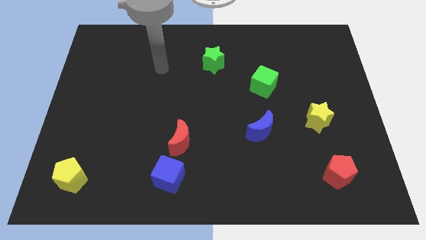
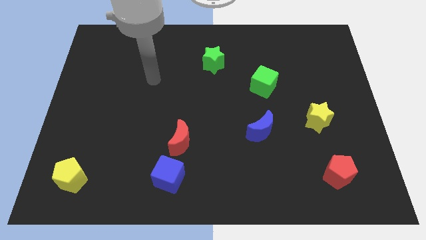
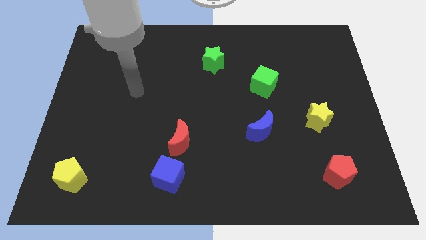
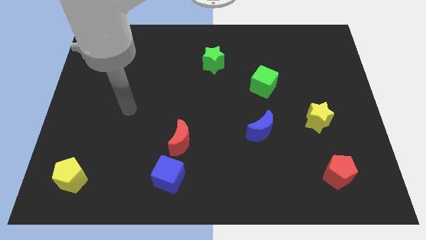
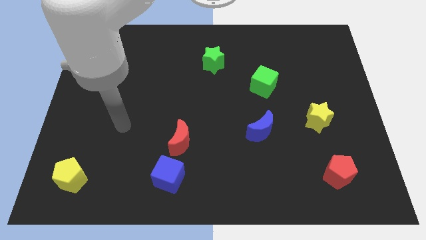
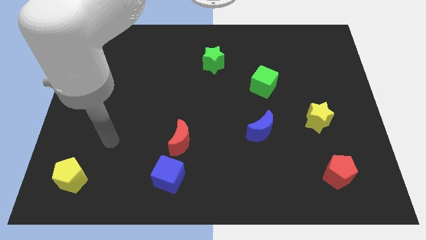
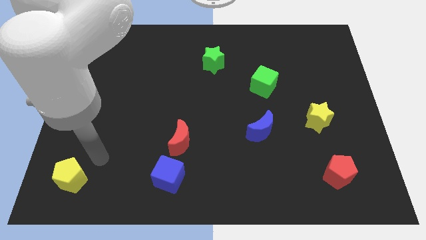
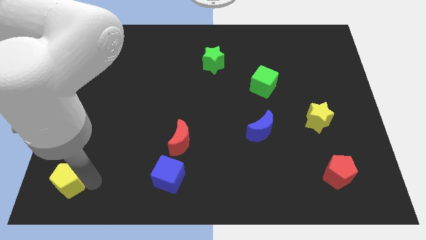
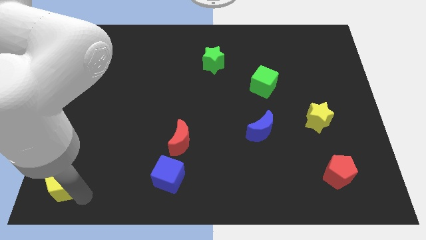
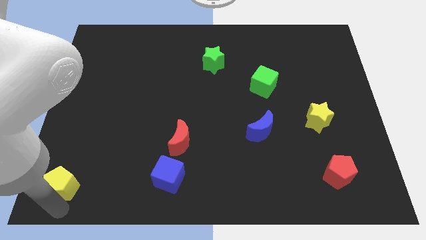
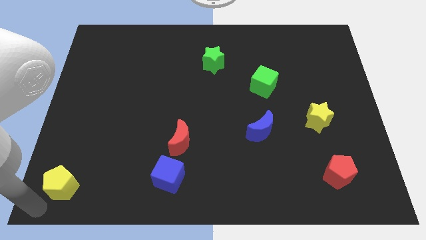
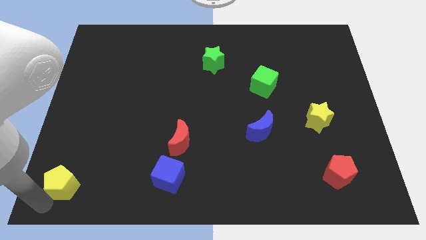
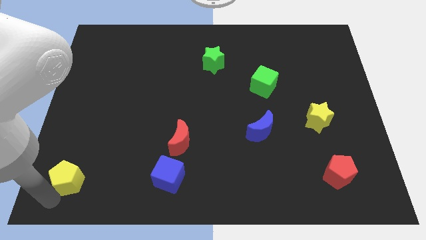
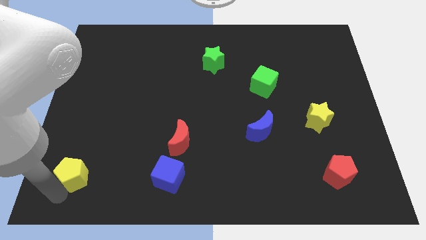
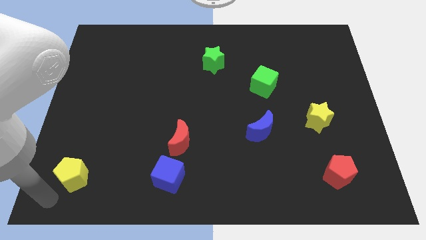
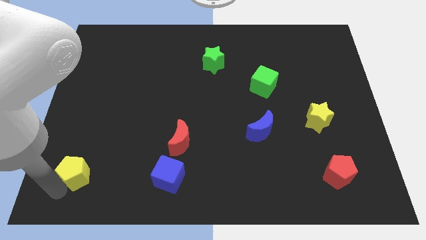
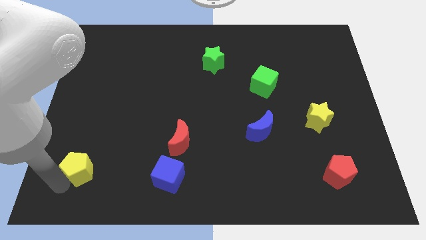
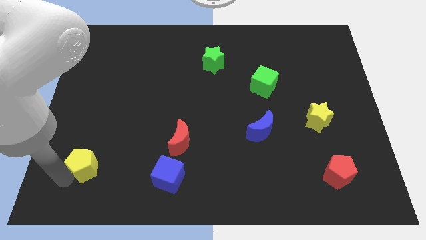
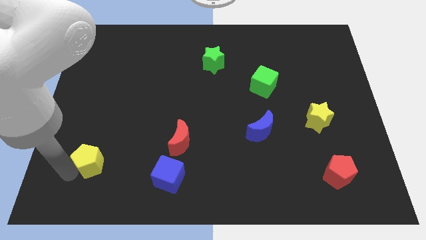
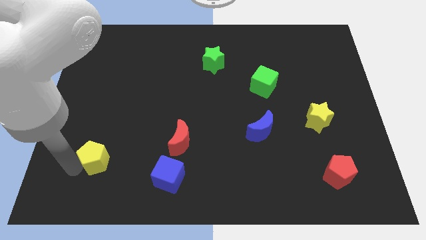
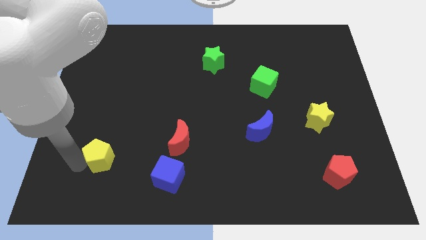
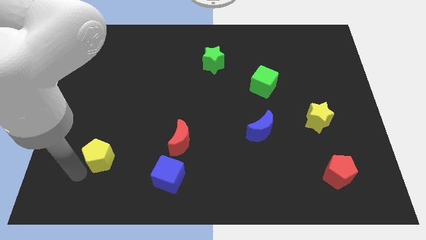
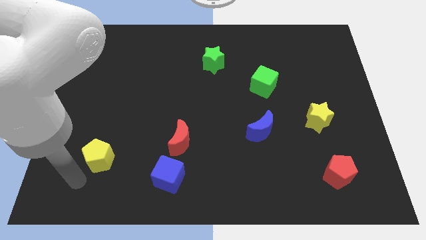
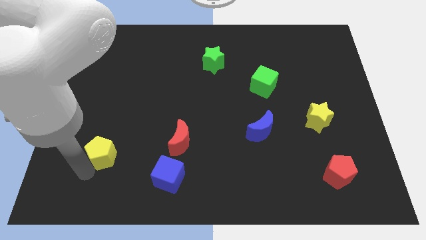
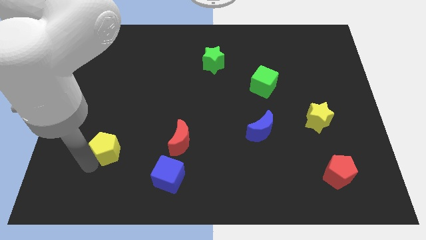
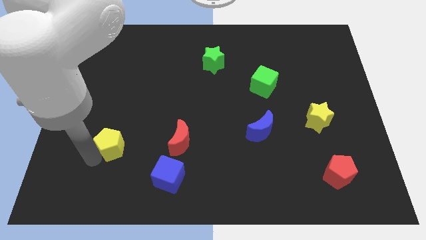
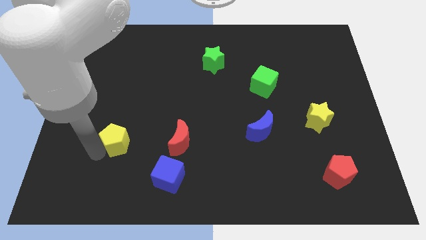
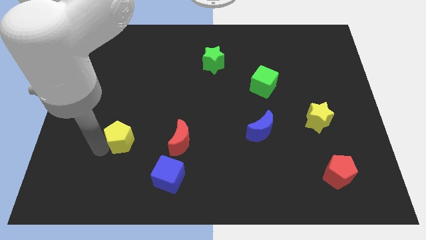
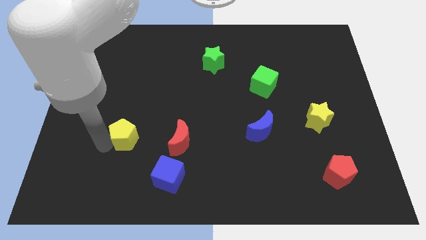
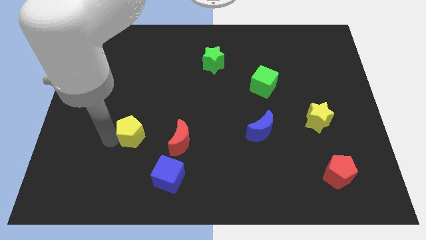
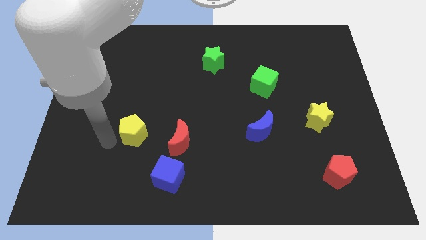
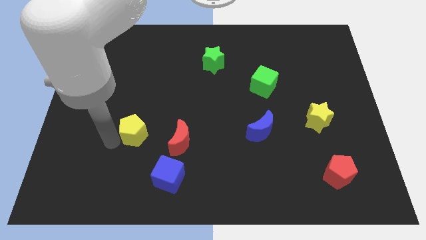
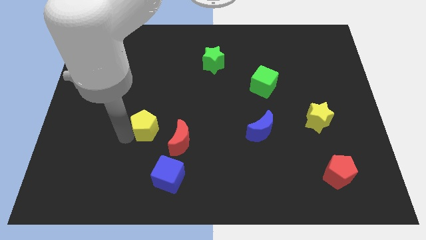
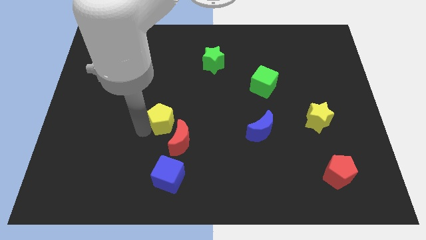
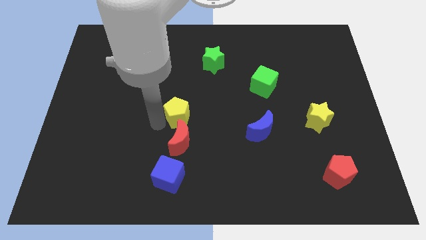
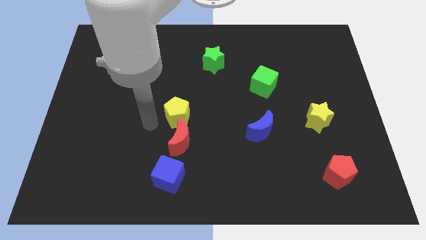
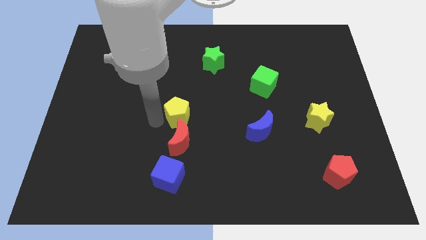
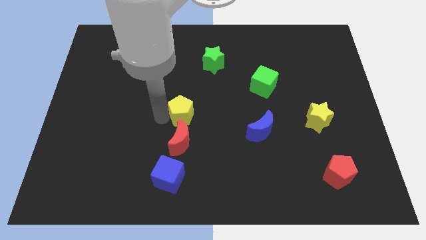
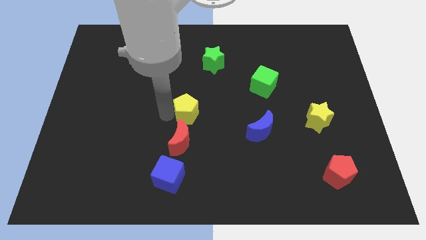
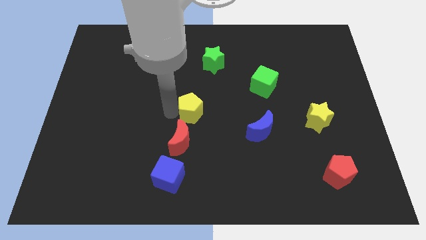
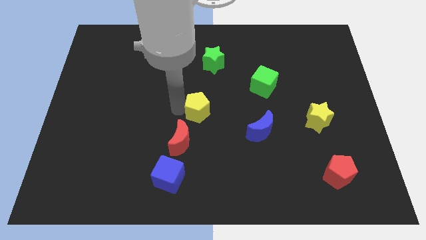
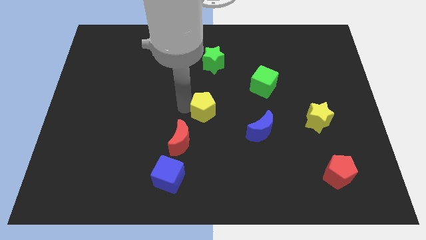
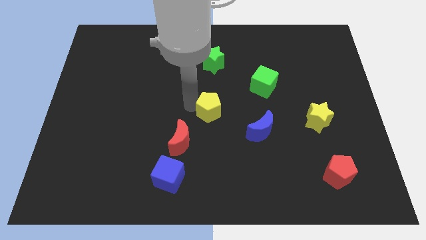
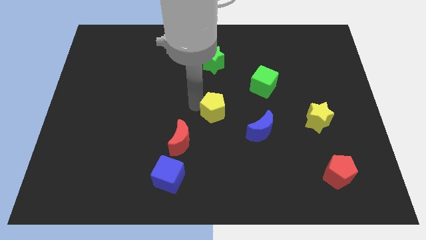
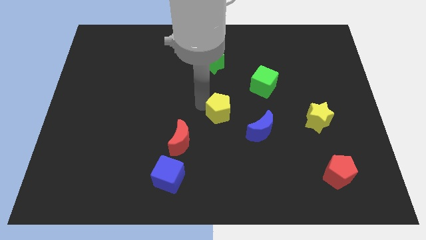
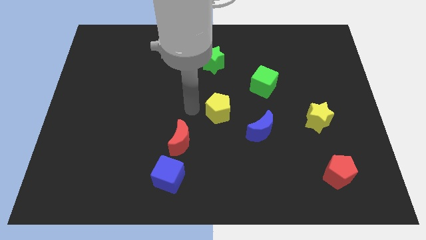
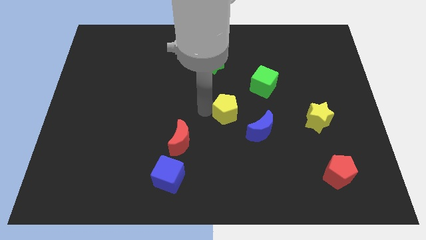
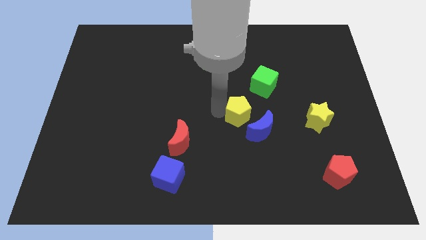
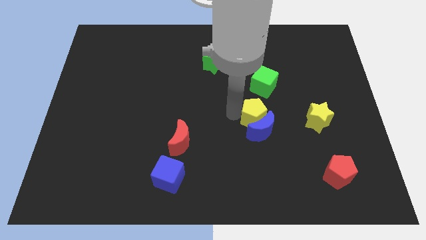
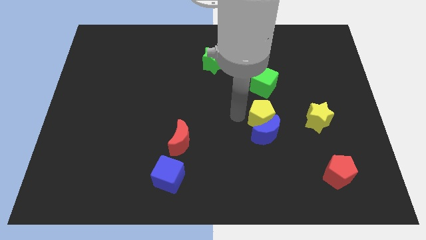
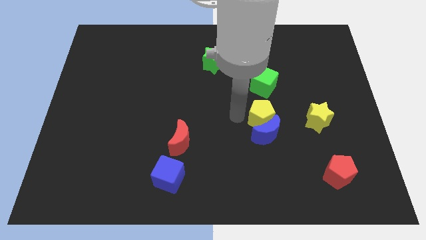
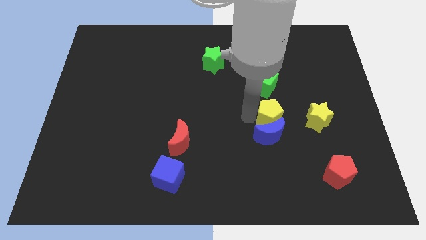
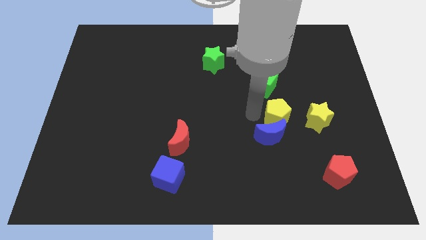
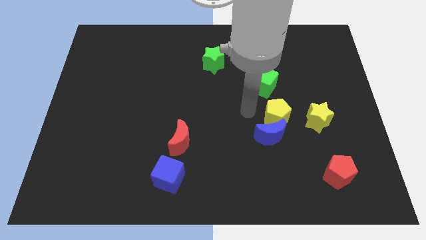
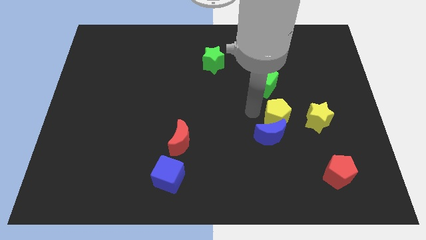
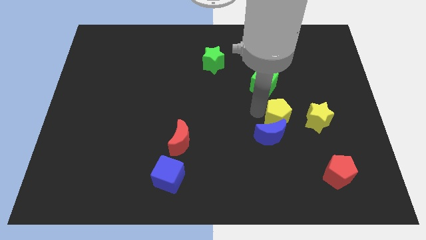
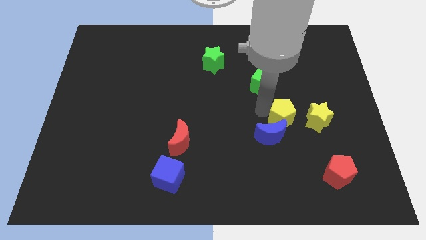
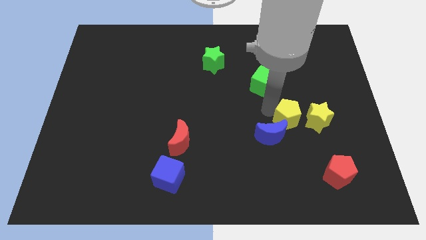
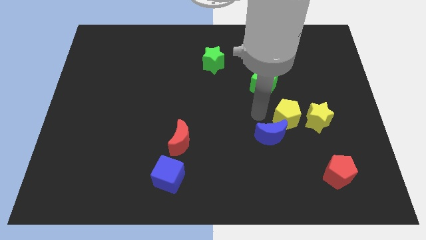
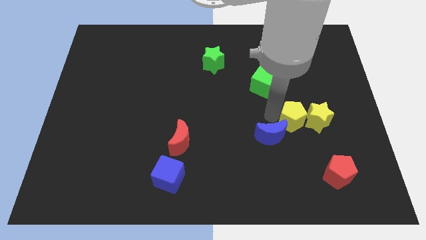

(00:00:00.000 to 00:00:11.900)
slide the yellow pentagon close to the yellow star

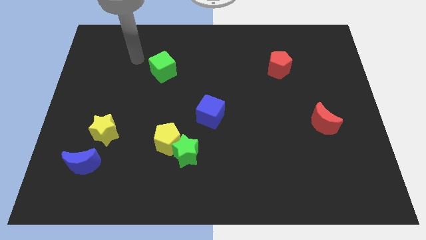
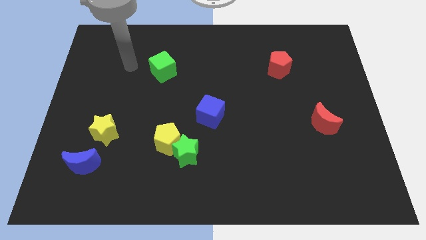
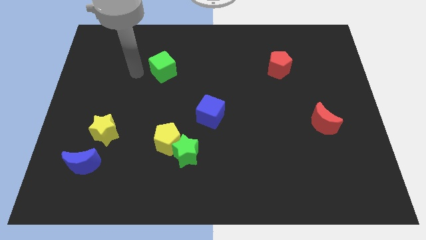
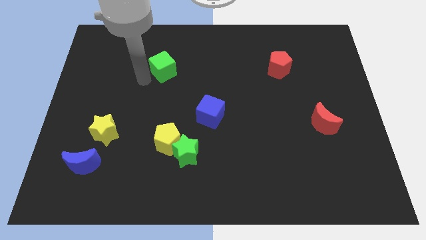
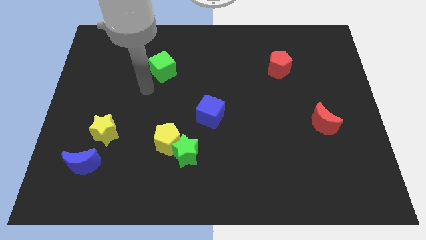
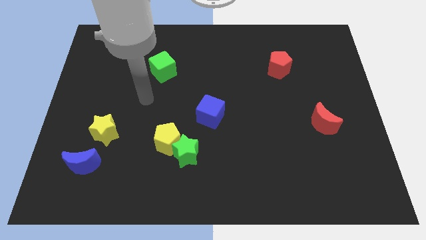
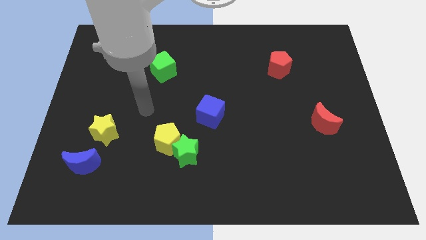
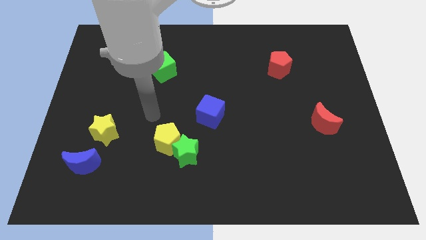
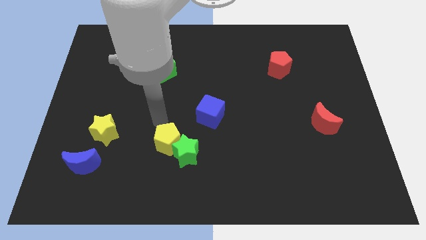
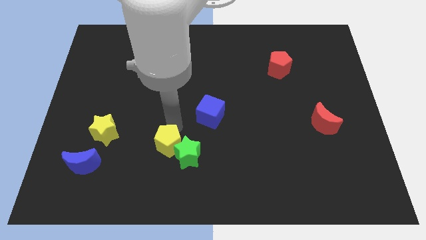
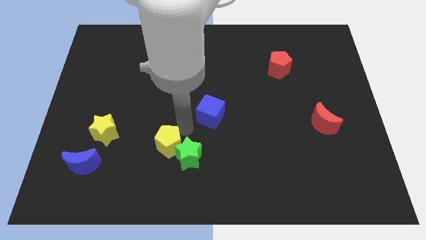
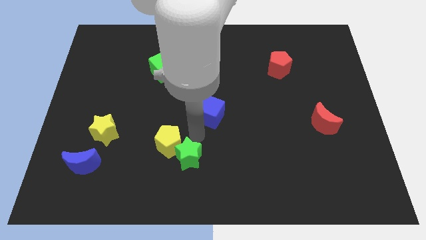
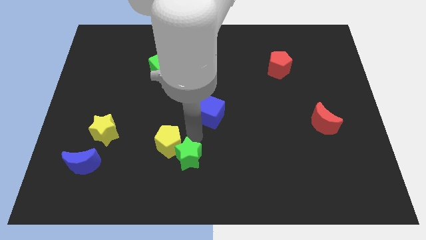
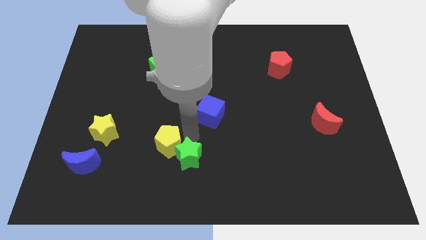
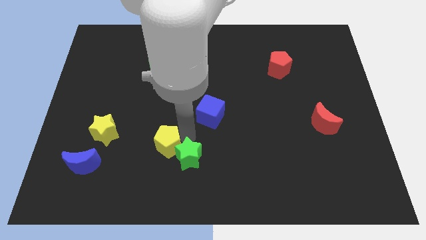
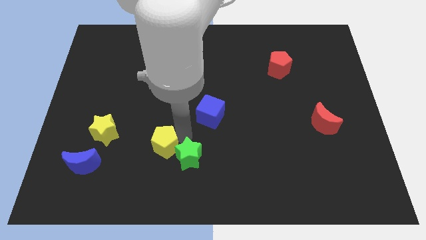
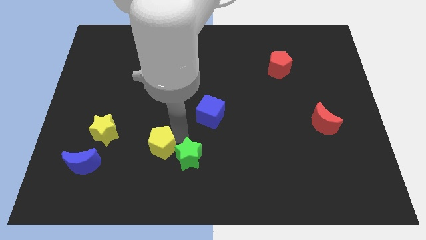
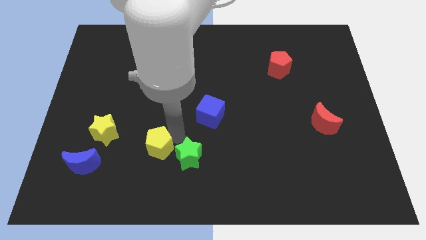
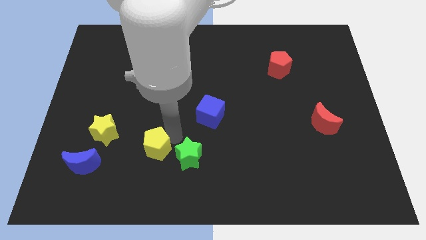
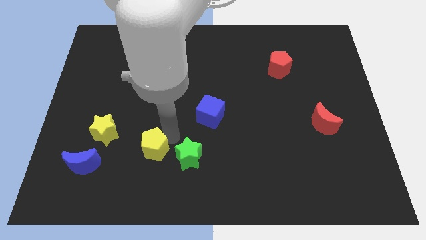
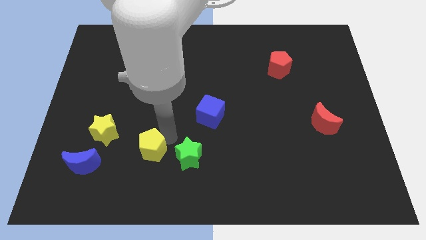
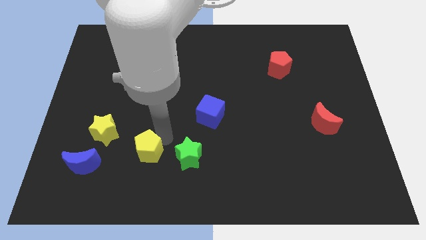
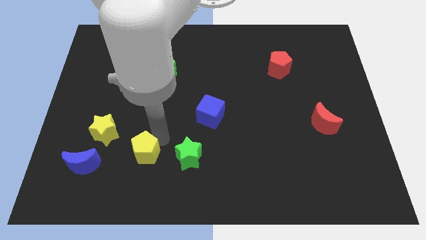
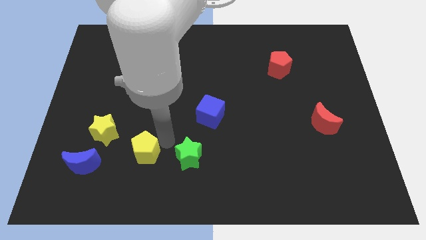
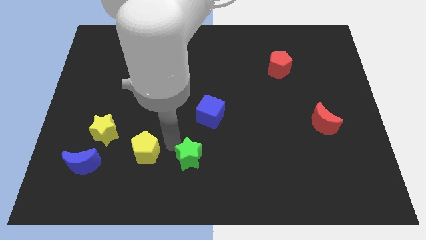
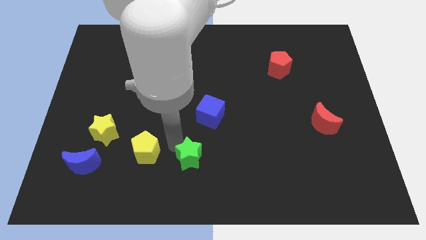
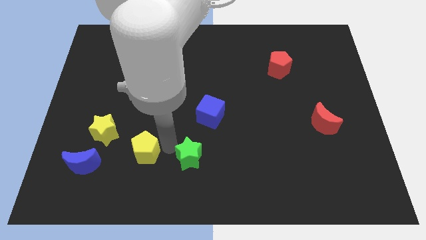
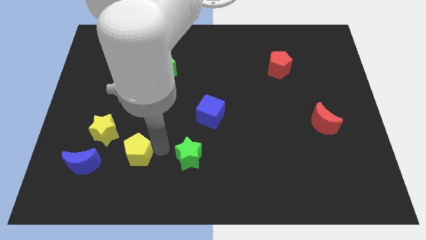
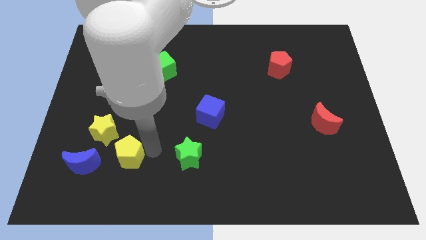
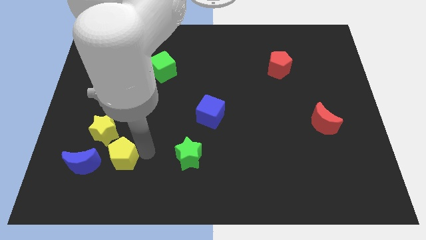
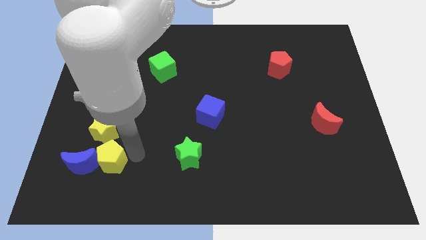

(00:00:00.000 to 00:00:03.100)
put the yellow pentagon to the blue moon
